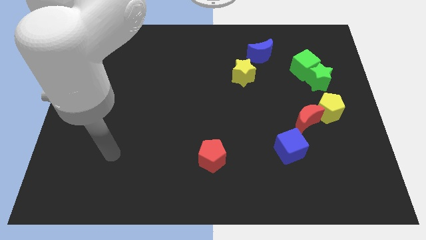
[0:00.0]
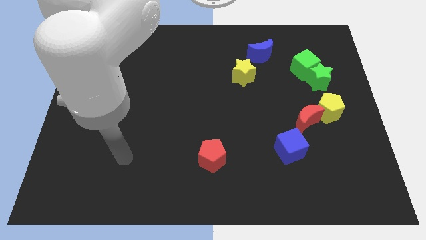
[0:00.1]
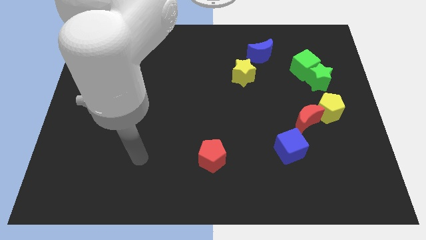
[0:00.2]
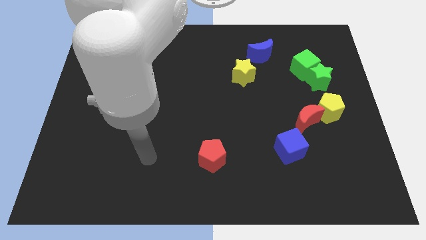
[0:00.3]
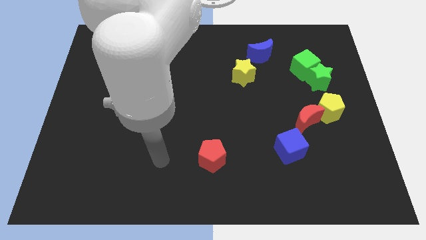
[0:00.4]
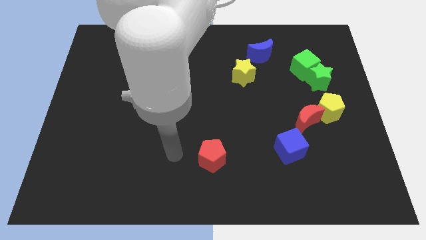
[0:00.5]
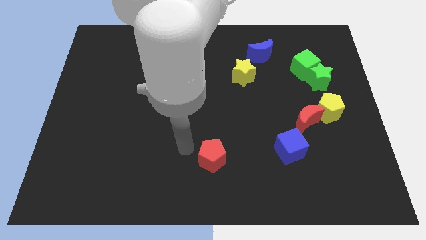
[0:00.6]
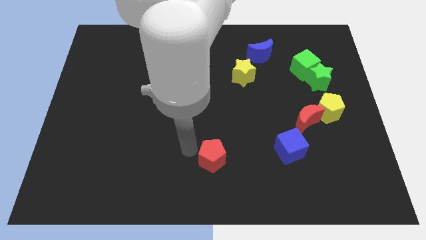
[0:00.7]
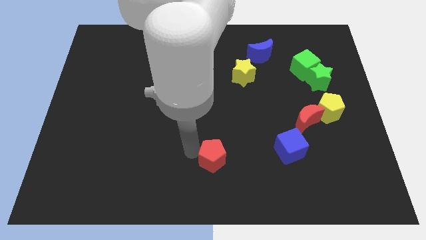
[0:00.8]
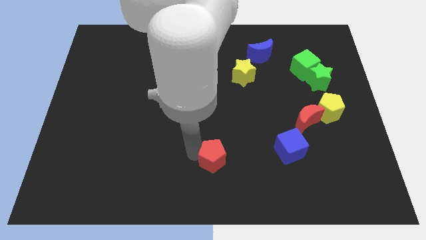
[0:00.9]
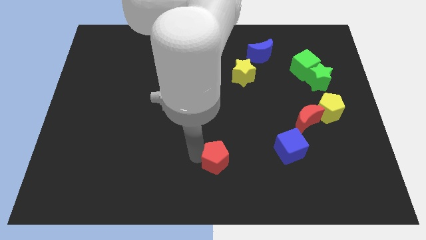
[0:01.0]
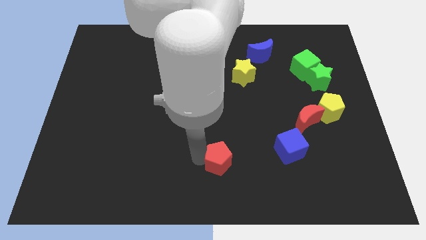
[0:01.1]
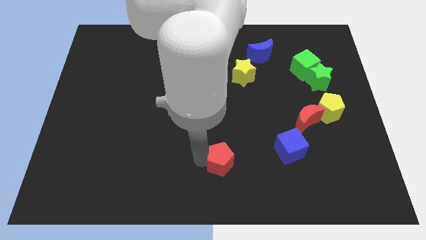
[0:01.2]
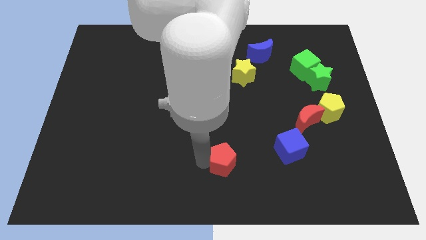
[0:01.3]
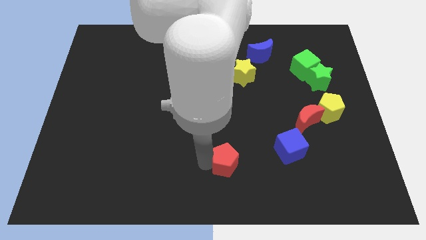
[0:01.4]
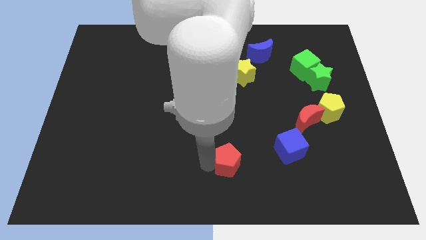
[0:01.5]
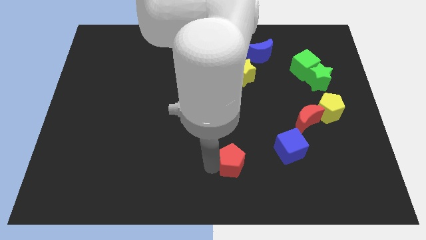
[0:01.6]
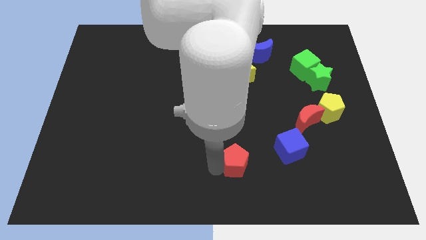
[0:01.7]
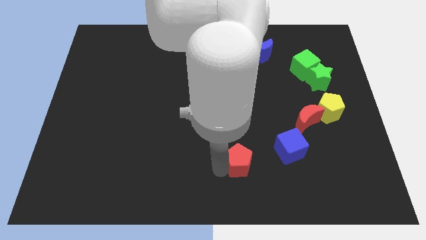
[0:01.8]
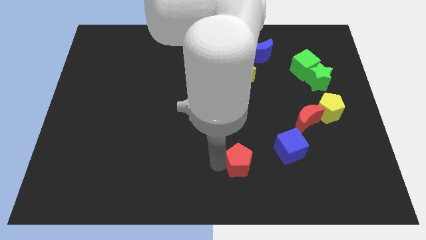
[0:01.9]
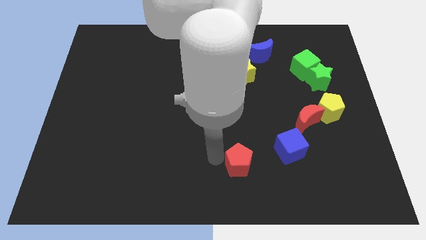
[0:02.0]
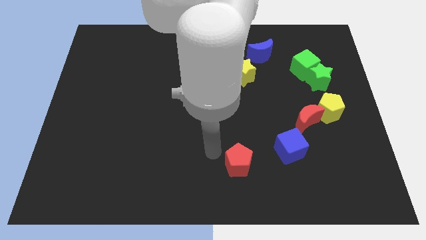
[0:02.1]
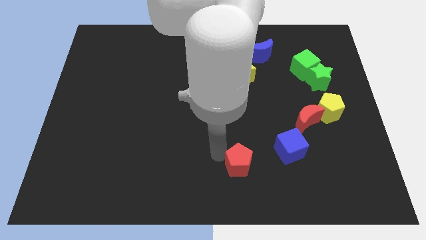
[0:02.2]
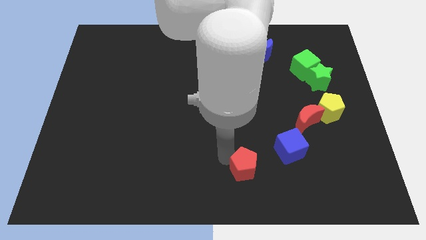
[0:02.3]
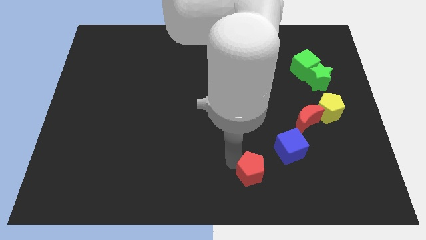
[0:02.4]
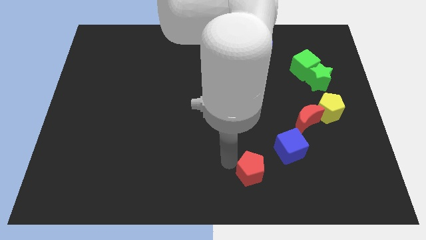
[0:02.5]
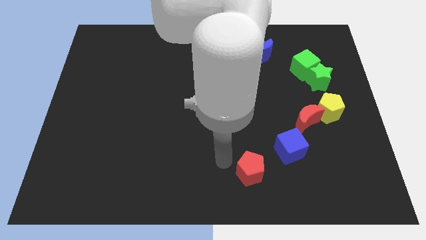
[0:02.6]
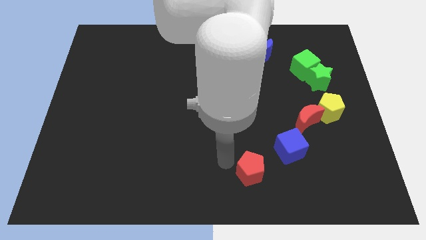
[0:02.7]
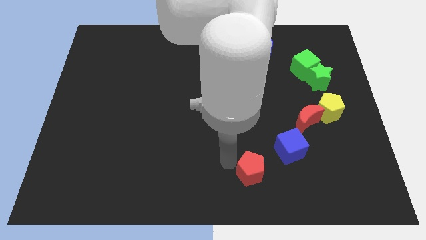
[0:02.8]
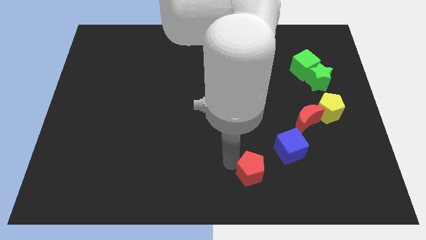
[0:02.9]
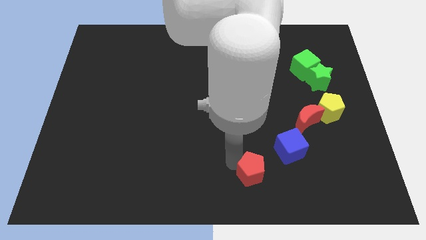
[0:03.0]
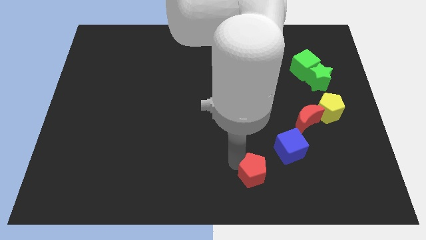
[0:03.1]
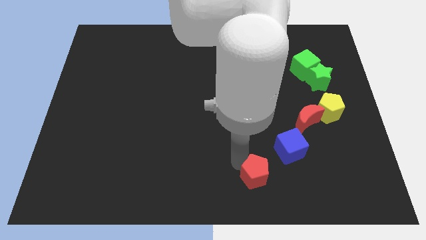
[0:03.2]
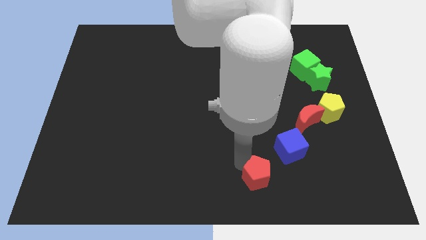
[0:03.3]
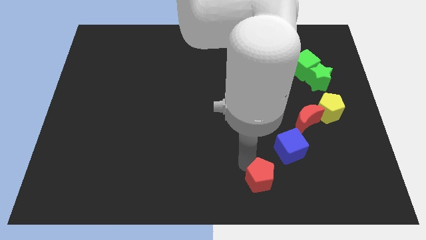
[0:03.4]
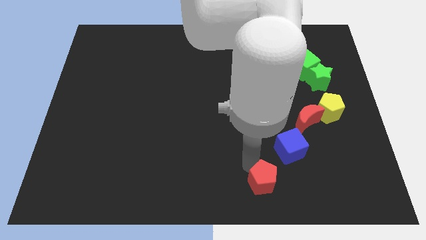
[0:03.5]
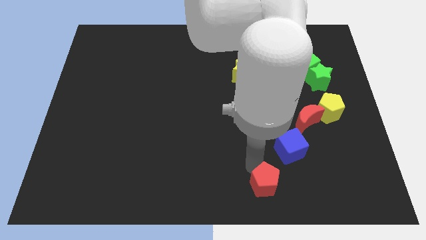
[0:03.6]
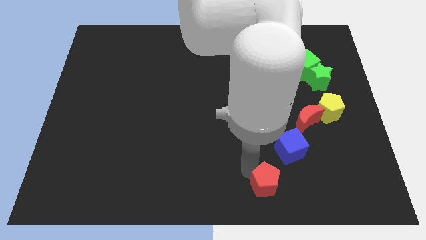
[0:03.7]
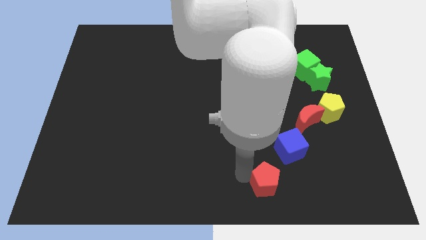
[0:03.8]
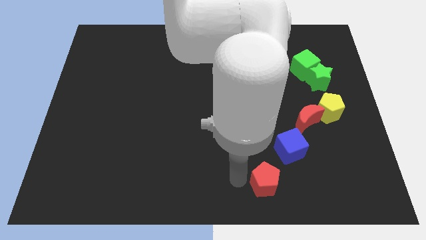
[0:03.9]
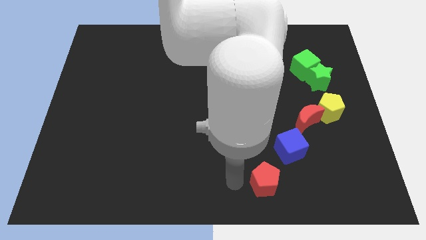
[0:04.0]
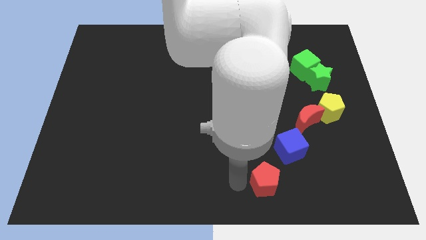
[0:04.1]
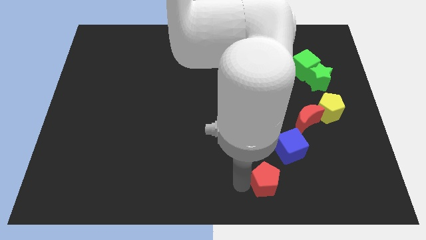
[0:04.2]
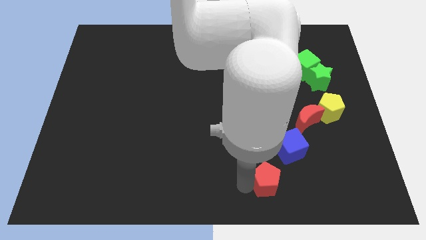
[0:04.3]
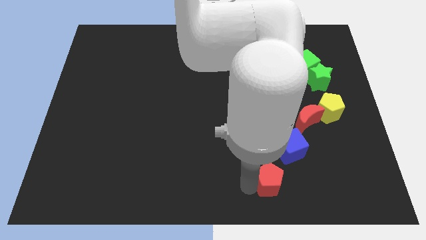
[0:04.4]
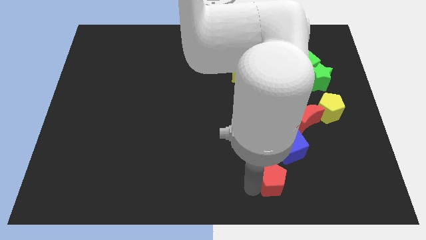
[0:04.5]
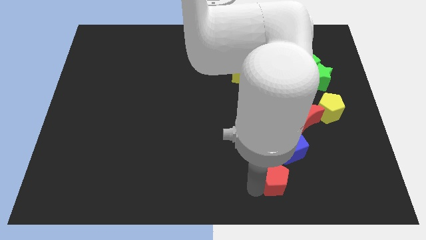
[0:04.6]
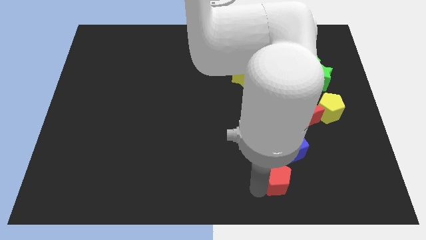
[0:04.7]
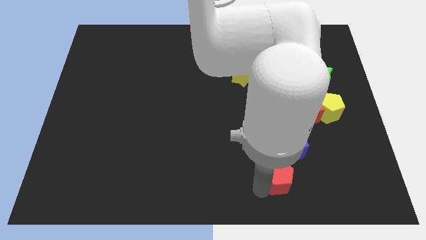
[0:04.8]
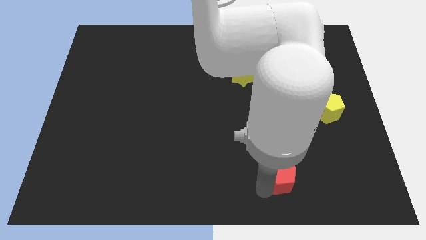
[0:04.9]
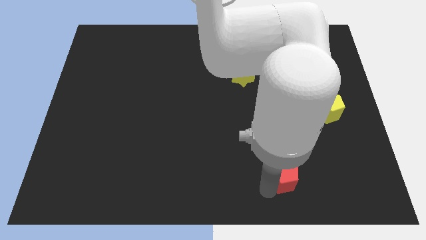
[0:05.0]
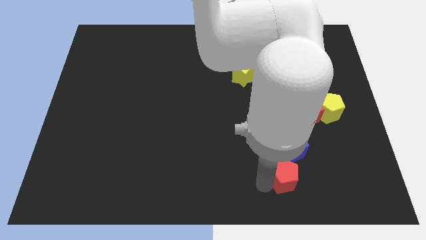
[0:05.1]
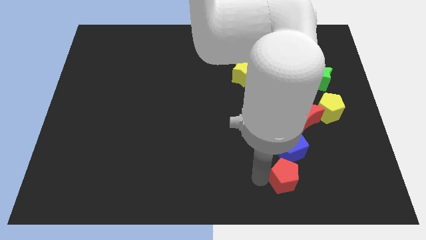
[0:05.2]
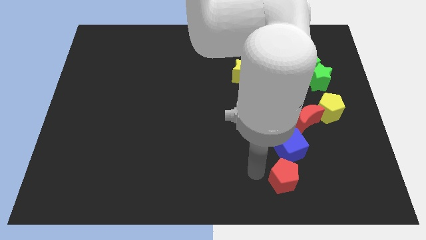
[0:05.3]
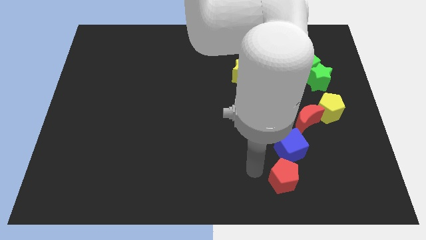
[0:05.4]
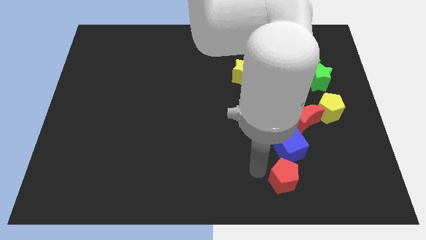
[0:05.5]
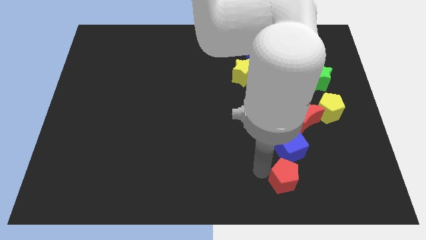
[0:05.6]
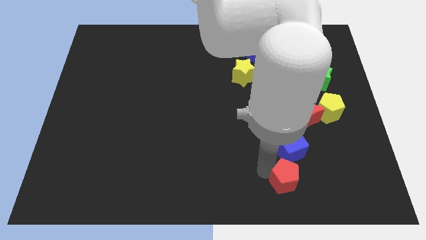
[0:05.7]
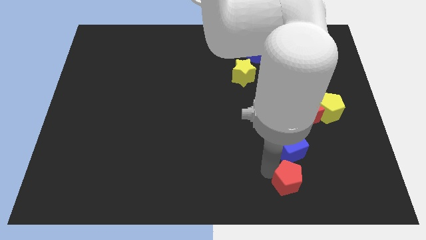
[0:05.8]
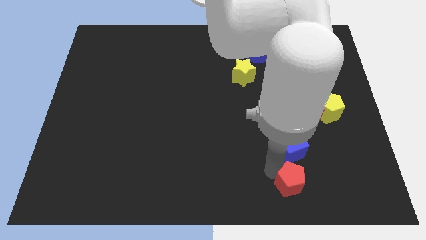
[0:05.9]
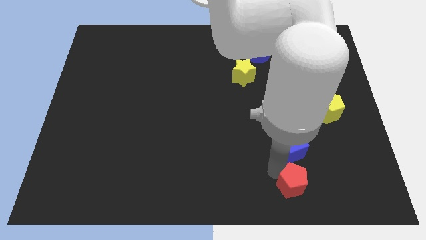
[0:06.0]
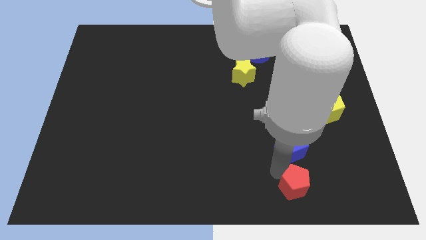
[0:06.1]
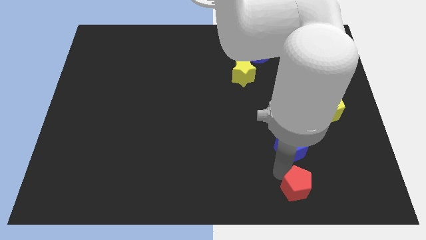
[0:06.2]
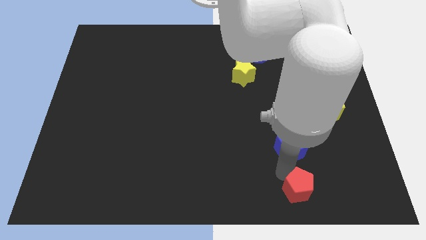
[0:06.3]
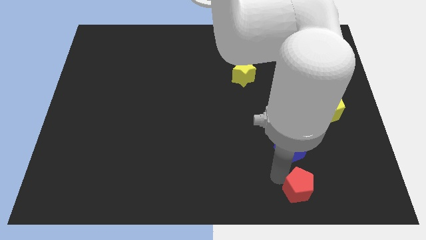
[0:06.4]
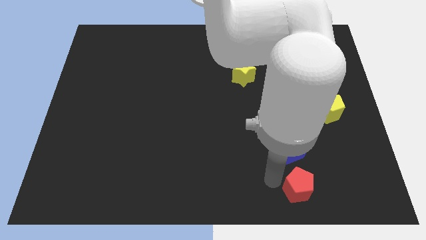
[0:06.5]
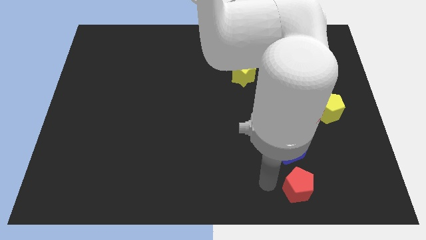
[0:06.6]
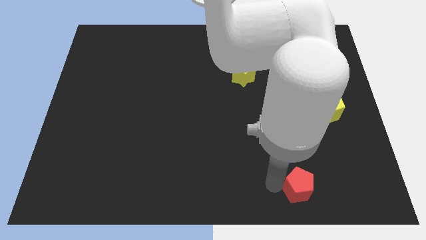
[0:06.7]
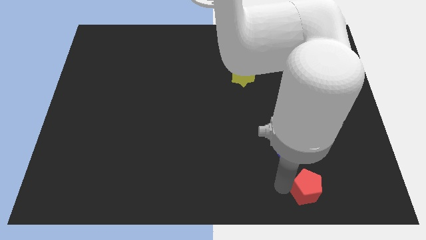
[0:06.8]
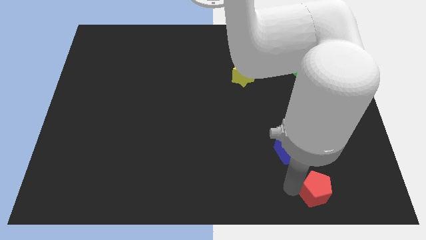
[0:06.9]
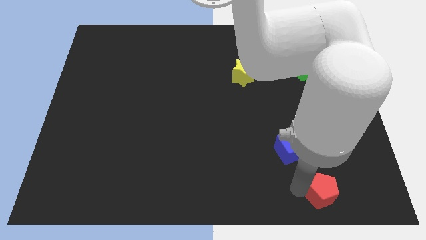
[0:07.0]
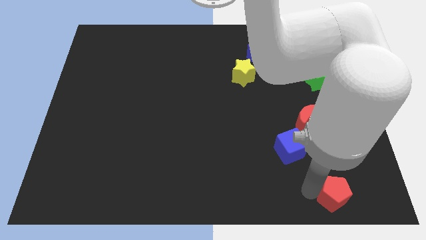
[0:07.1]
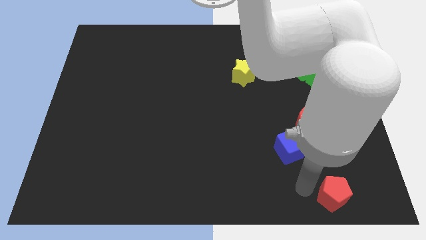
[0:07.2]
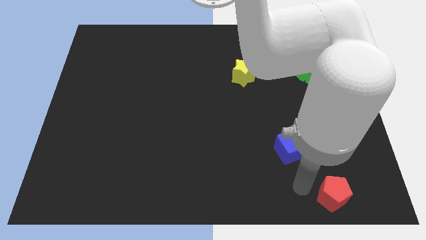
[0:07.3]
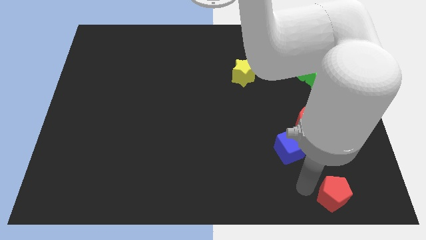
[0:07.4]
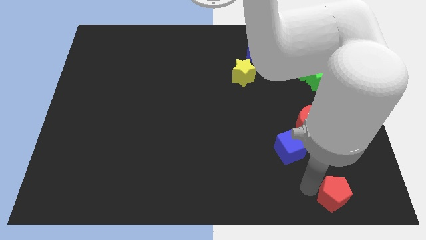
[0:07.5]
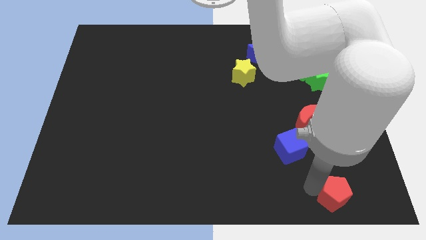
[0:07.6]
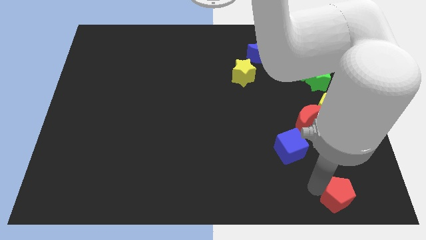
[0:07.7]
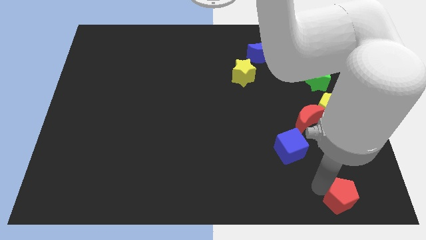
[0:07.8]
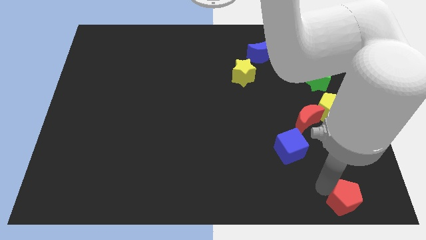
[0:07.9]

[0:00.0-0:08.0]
slide the red pentagon to the bottom right corner
